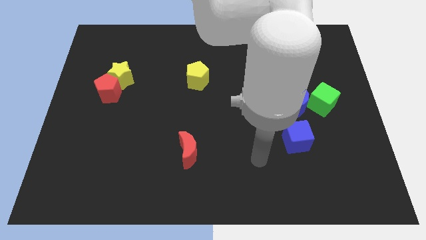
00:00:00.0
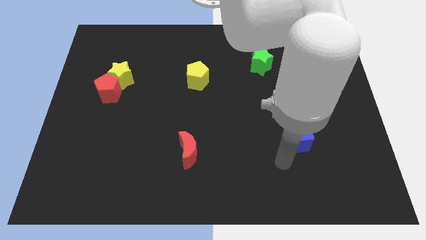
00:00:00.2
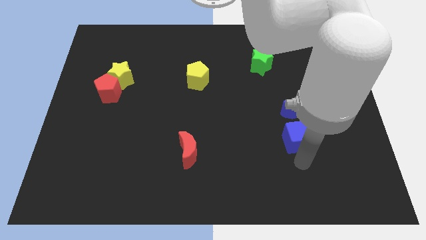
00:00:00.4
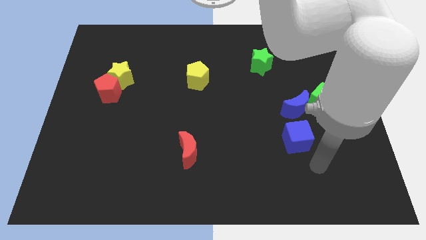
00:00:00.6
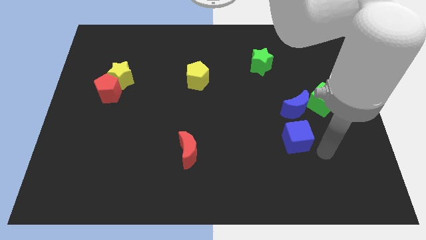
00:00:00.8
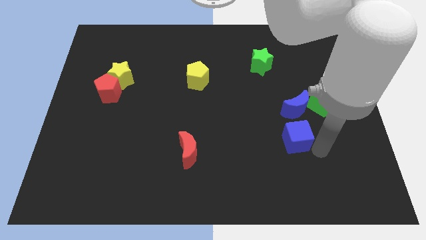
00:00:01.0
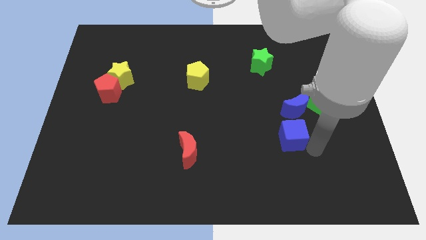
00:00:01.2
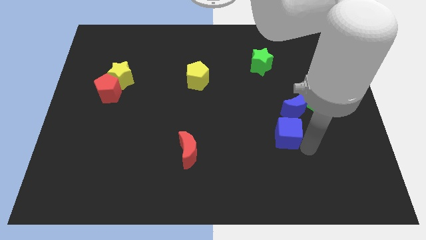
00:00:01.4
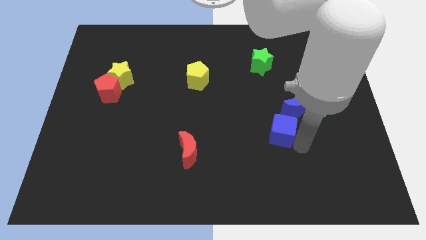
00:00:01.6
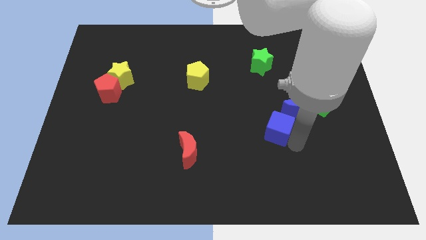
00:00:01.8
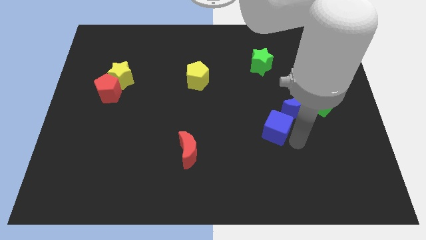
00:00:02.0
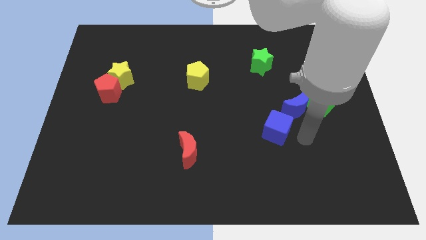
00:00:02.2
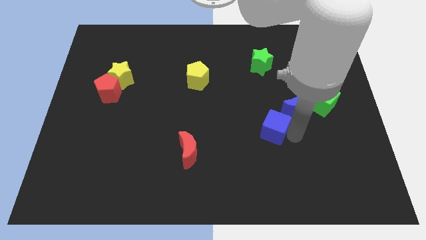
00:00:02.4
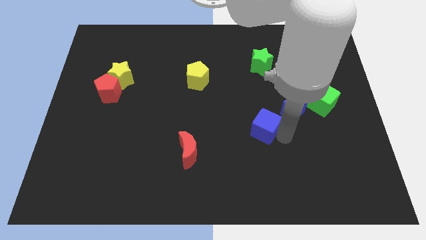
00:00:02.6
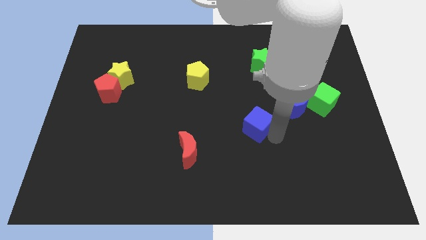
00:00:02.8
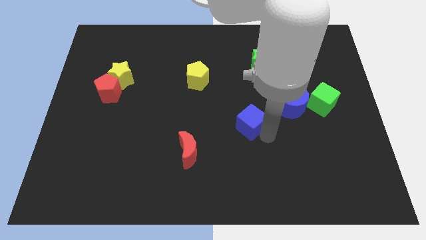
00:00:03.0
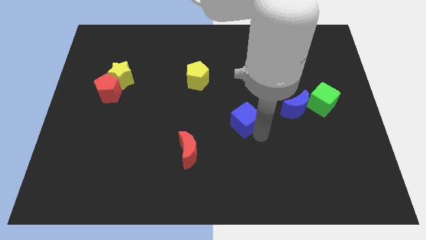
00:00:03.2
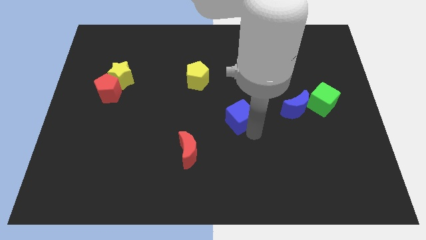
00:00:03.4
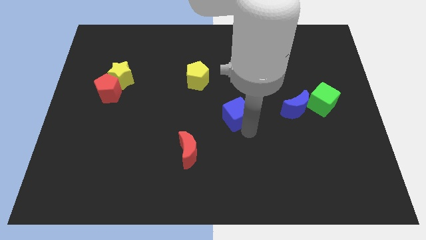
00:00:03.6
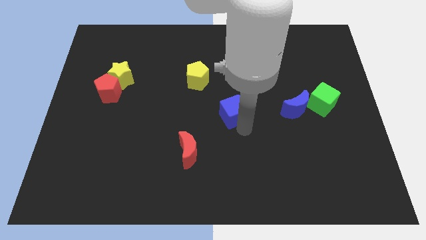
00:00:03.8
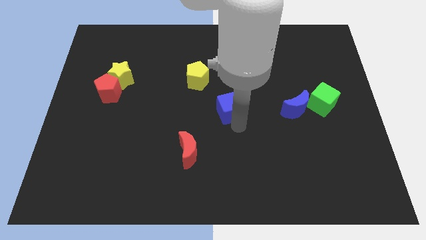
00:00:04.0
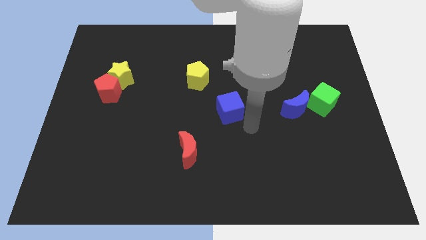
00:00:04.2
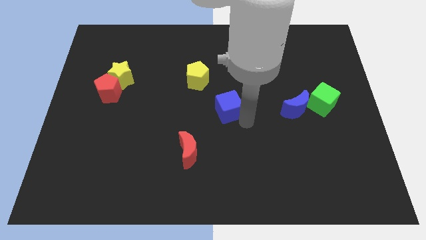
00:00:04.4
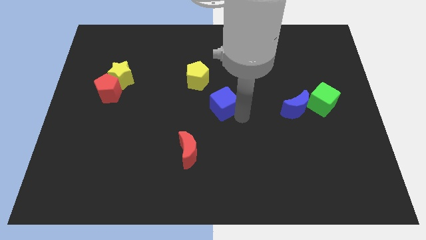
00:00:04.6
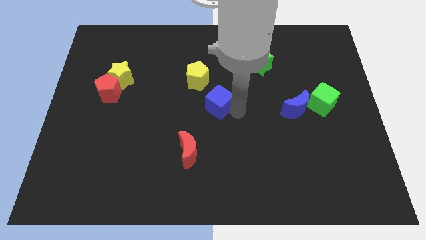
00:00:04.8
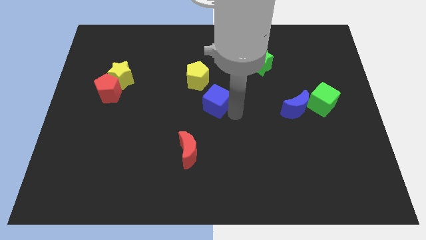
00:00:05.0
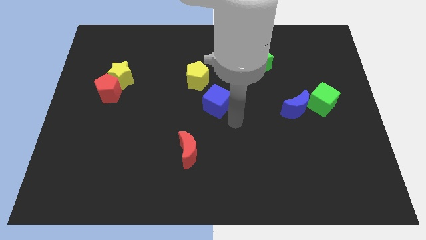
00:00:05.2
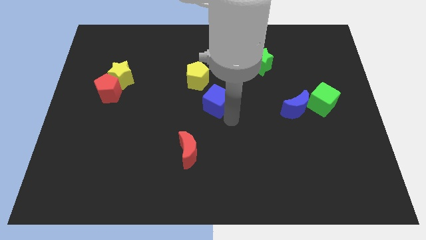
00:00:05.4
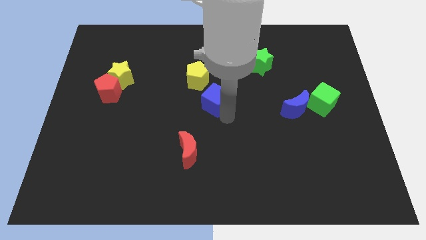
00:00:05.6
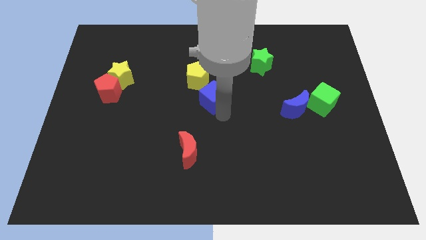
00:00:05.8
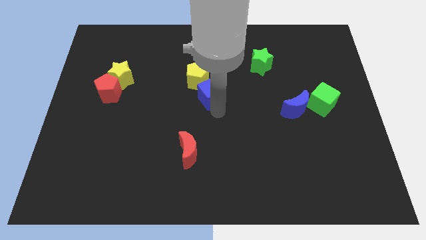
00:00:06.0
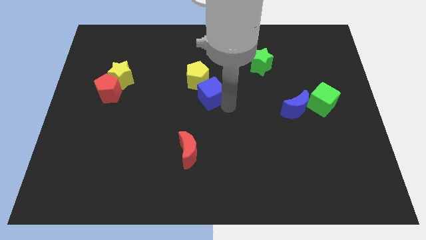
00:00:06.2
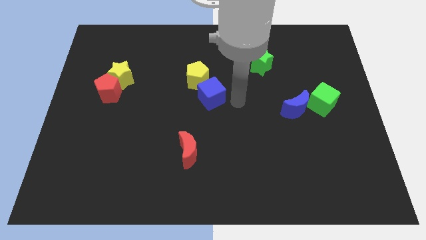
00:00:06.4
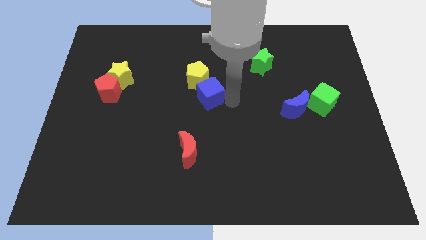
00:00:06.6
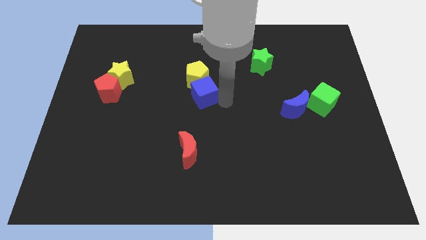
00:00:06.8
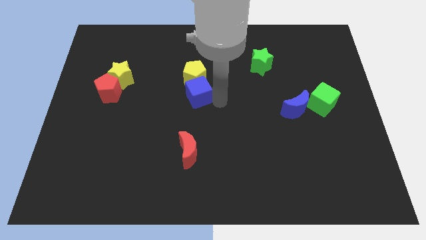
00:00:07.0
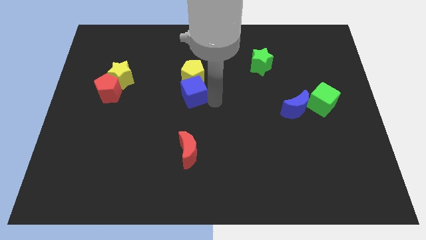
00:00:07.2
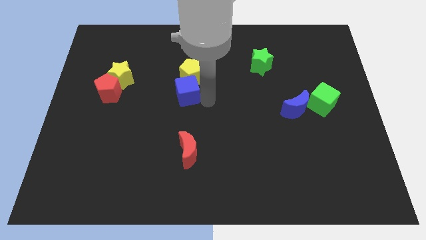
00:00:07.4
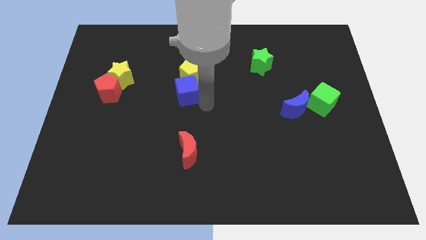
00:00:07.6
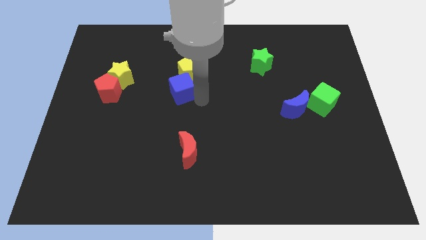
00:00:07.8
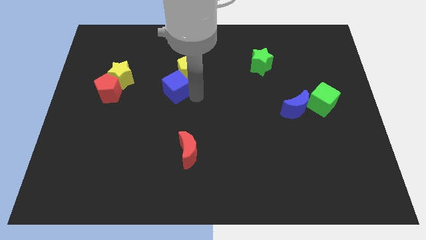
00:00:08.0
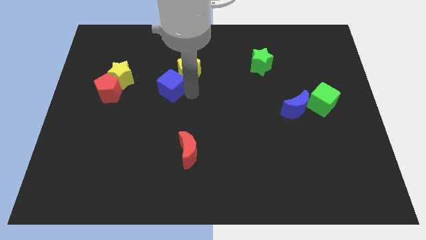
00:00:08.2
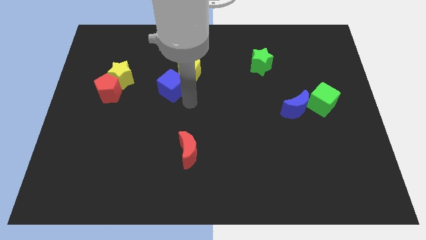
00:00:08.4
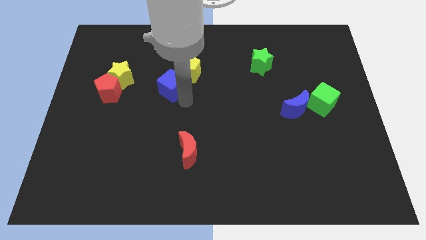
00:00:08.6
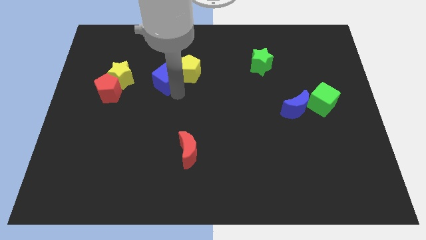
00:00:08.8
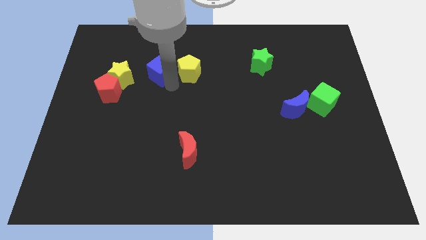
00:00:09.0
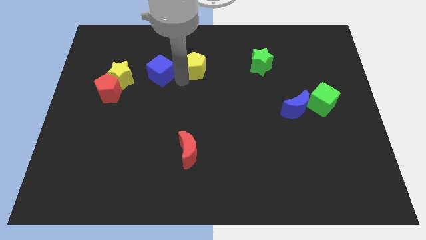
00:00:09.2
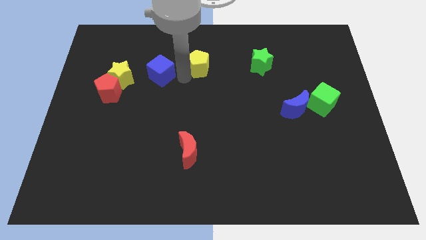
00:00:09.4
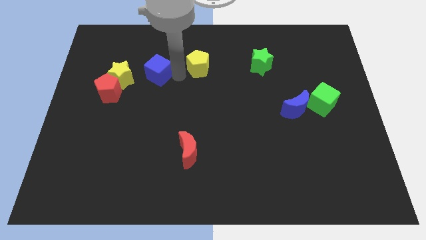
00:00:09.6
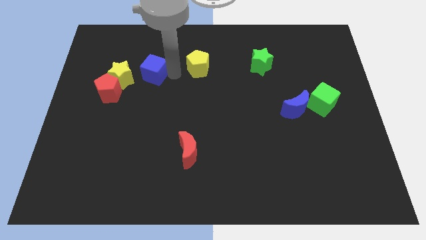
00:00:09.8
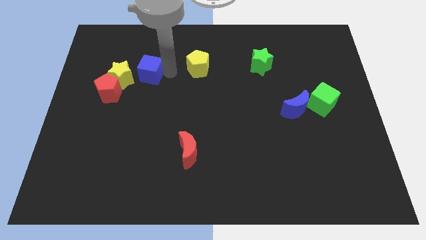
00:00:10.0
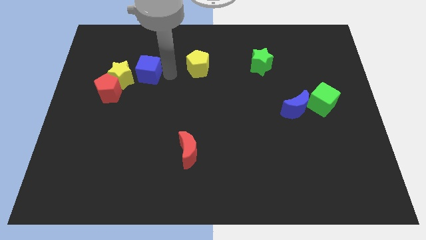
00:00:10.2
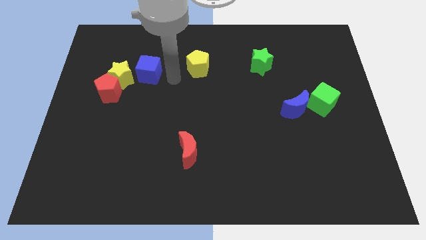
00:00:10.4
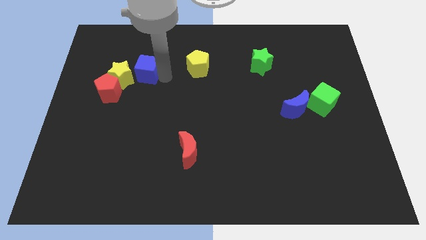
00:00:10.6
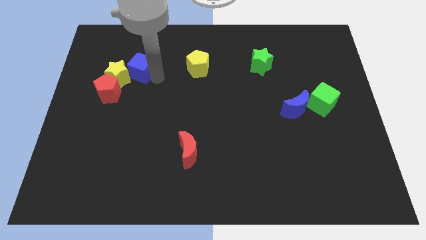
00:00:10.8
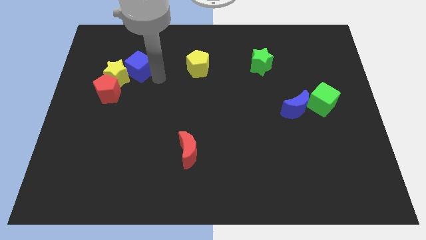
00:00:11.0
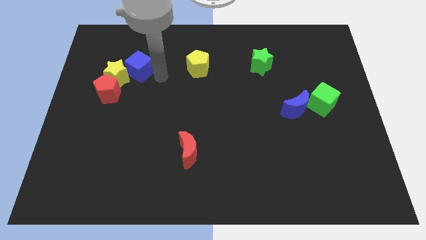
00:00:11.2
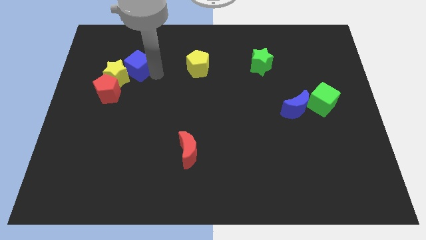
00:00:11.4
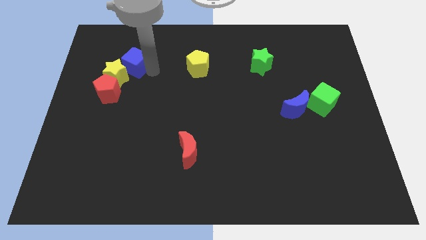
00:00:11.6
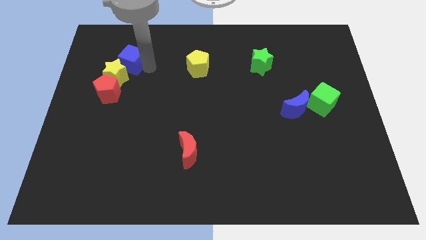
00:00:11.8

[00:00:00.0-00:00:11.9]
move the blue cube to the top of the red pentagon

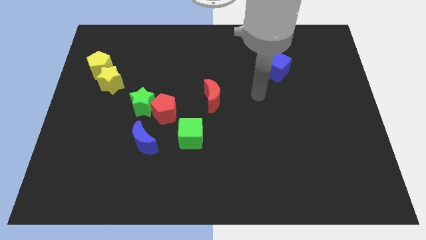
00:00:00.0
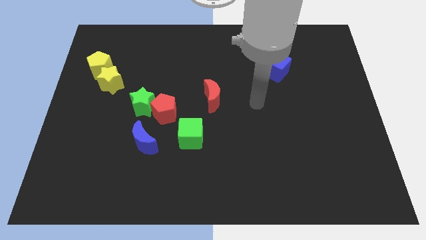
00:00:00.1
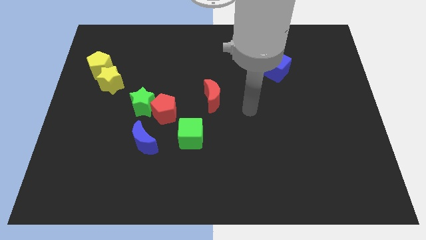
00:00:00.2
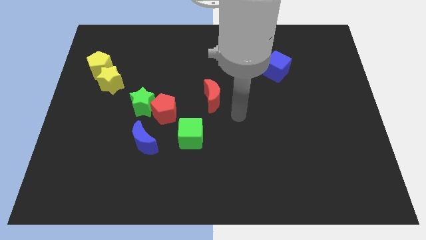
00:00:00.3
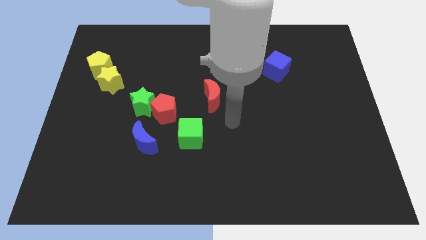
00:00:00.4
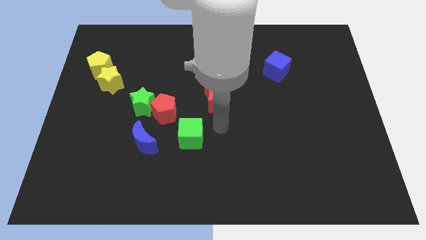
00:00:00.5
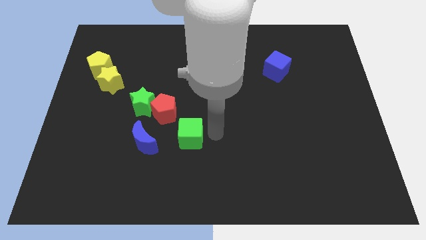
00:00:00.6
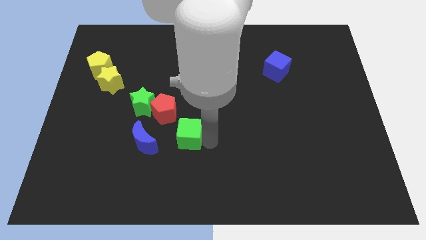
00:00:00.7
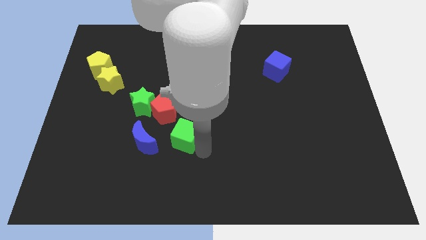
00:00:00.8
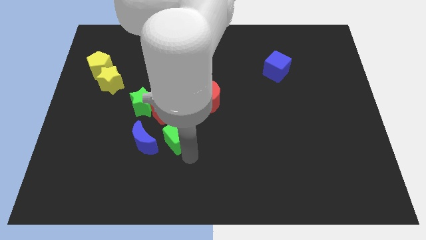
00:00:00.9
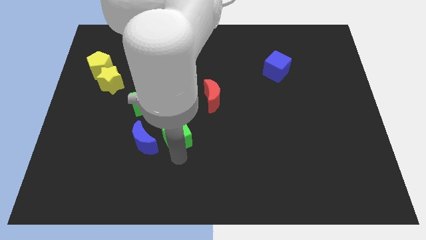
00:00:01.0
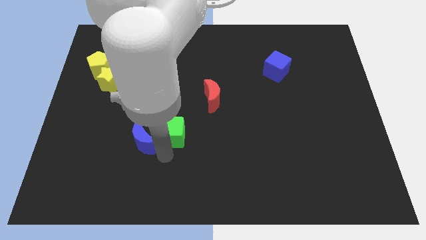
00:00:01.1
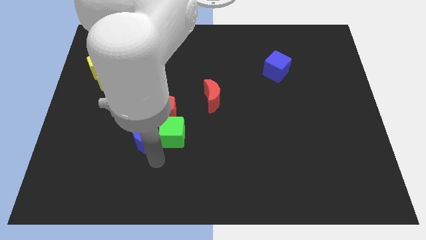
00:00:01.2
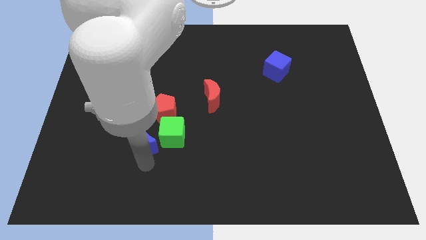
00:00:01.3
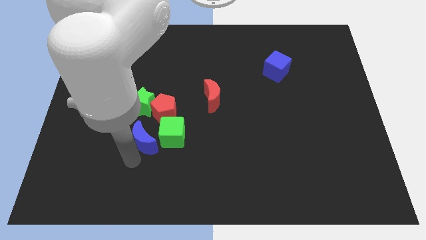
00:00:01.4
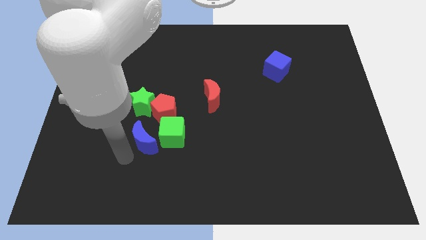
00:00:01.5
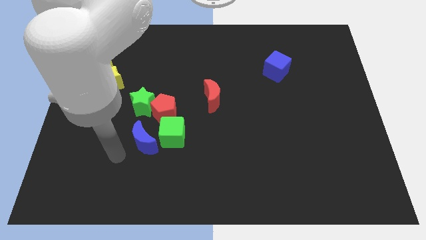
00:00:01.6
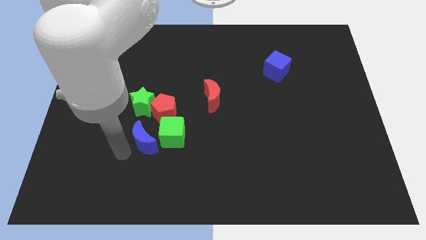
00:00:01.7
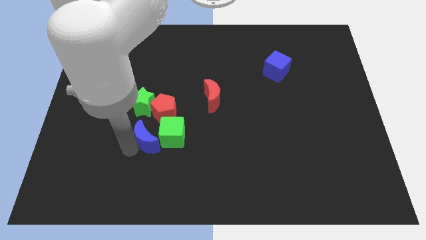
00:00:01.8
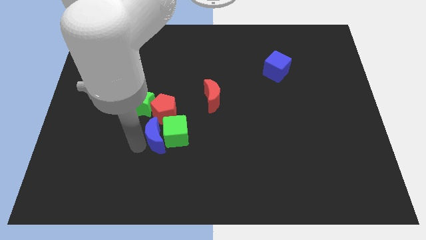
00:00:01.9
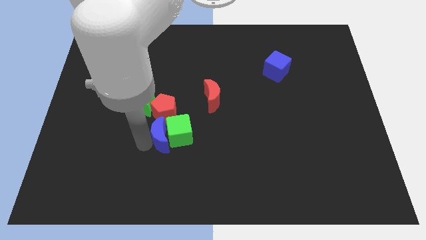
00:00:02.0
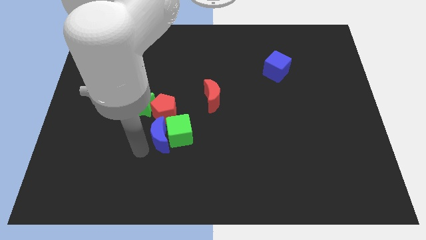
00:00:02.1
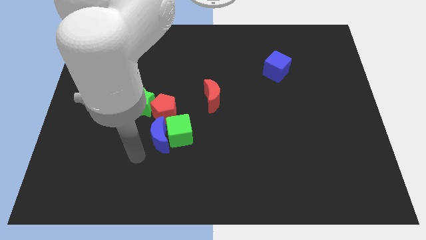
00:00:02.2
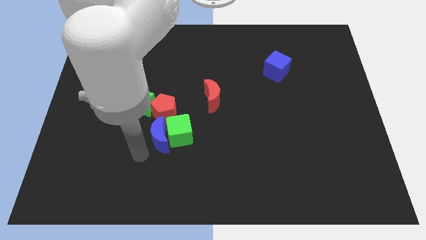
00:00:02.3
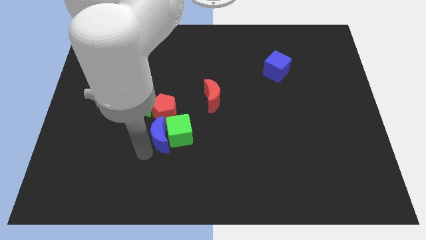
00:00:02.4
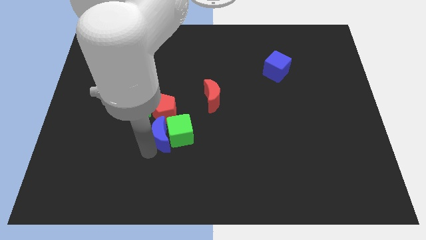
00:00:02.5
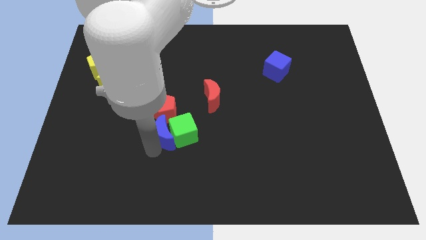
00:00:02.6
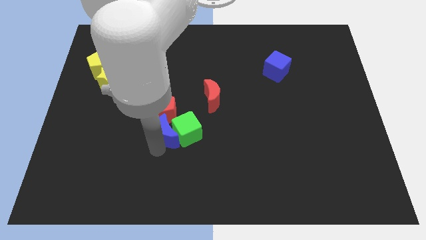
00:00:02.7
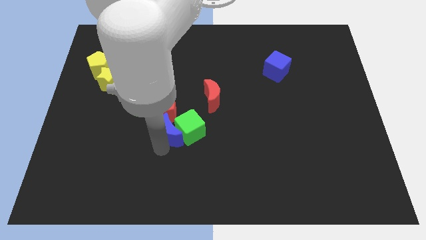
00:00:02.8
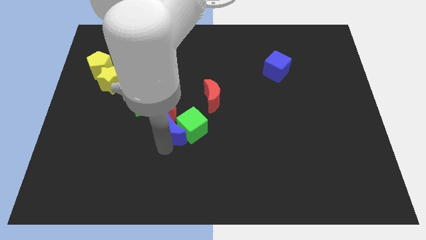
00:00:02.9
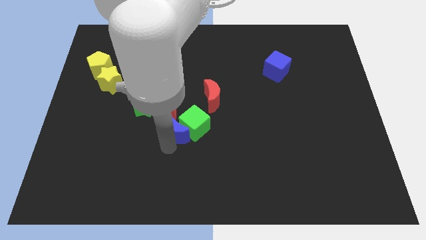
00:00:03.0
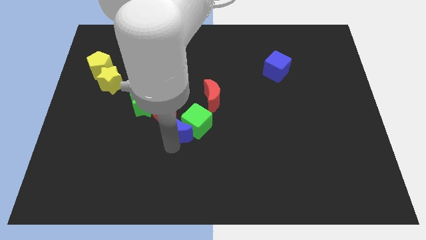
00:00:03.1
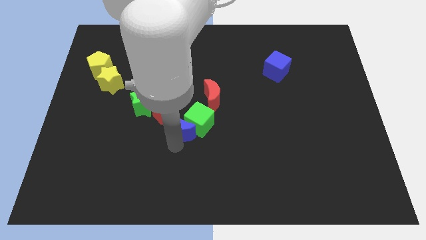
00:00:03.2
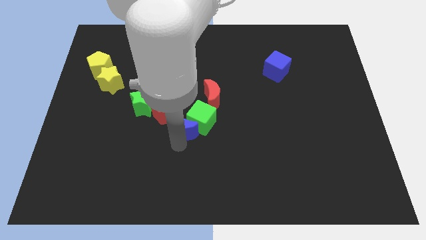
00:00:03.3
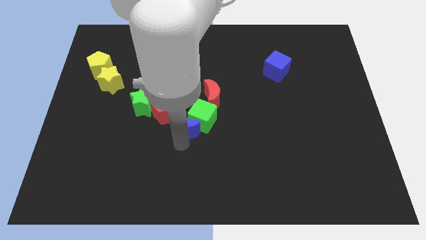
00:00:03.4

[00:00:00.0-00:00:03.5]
put the blue moon just right of the red pentagon
